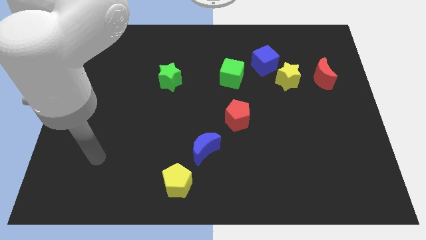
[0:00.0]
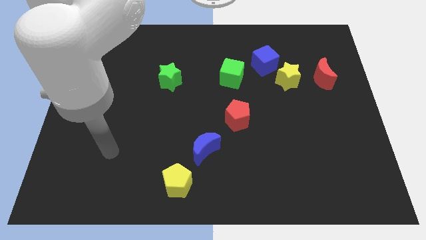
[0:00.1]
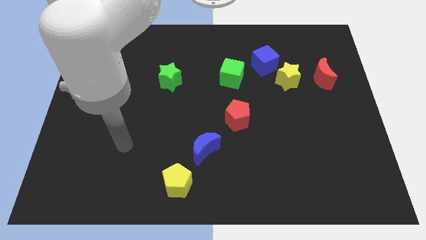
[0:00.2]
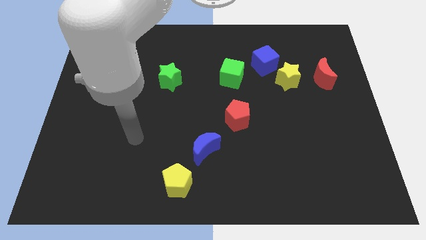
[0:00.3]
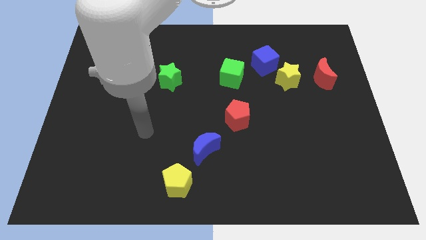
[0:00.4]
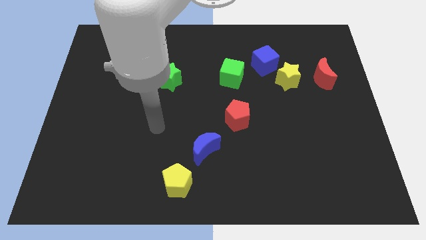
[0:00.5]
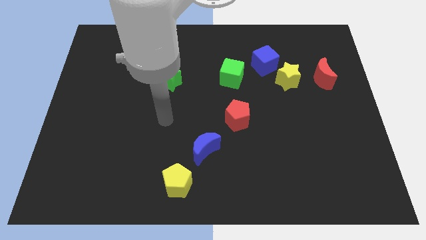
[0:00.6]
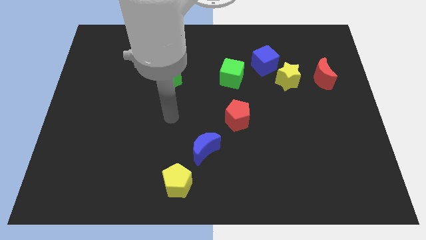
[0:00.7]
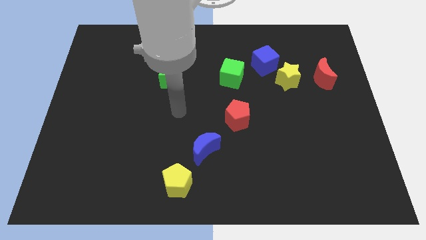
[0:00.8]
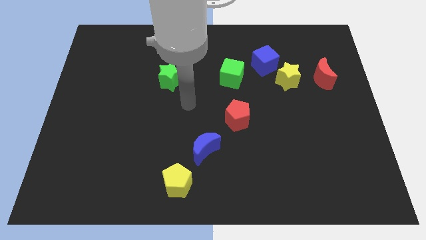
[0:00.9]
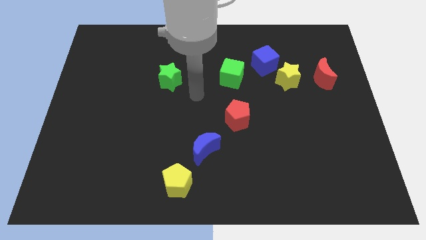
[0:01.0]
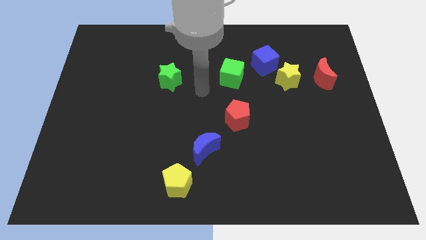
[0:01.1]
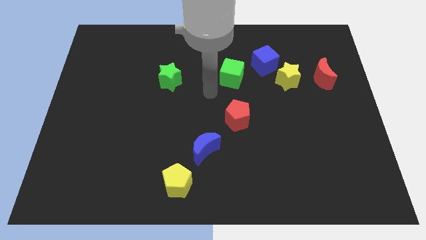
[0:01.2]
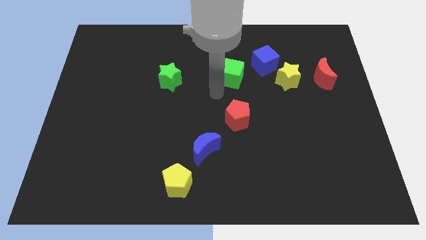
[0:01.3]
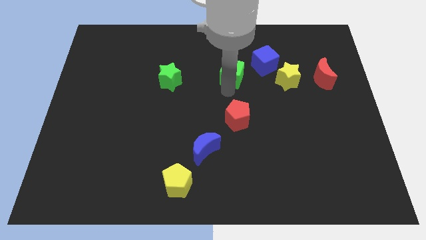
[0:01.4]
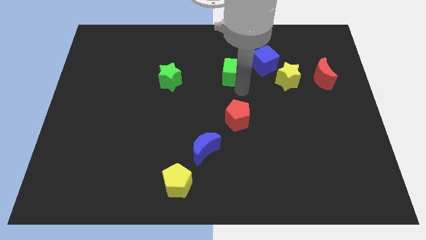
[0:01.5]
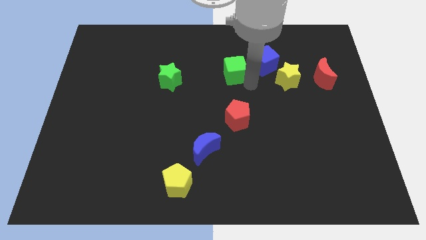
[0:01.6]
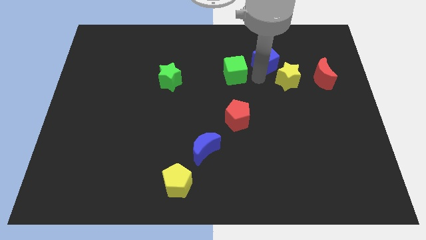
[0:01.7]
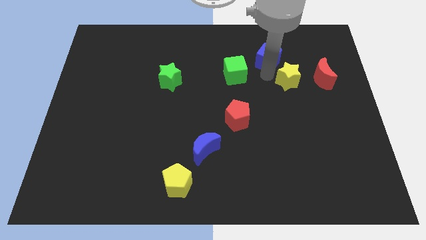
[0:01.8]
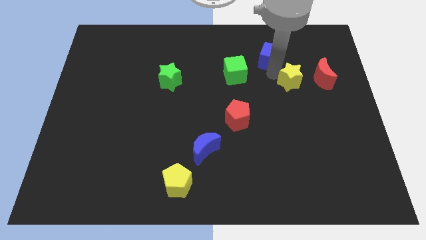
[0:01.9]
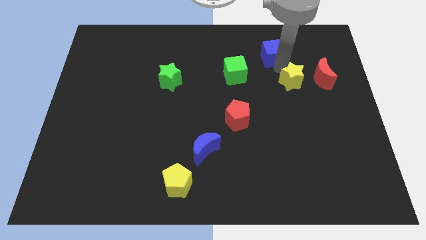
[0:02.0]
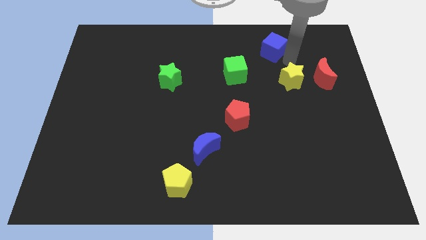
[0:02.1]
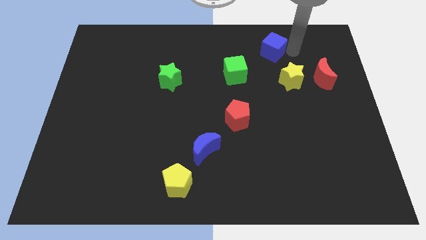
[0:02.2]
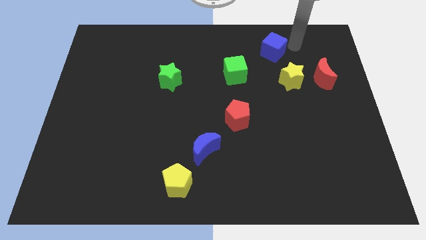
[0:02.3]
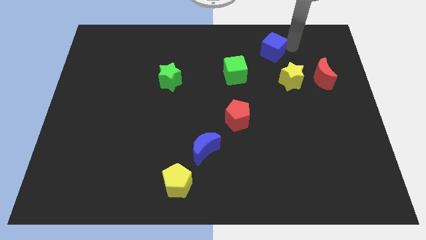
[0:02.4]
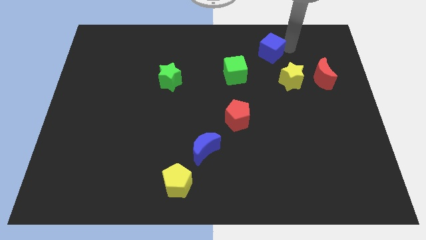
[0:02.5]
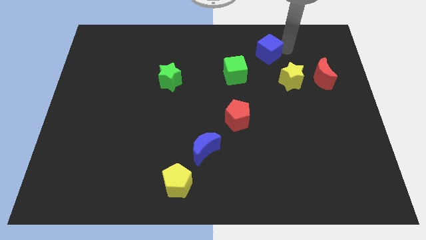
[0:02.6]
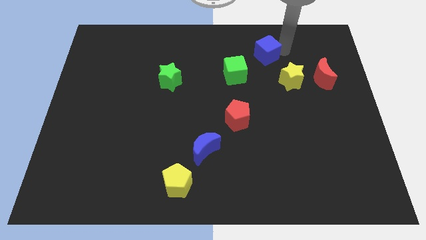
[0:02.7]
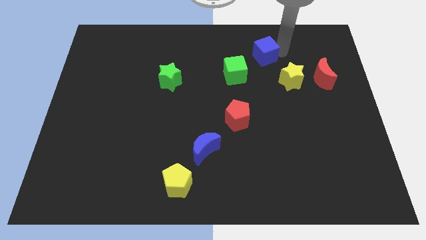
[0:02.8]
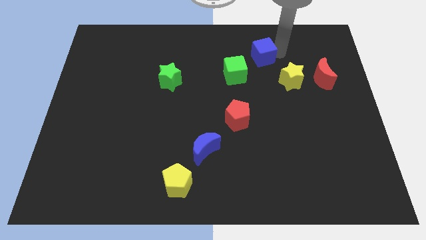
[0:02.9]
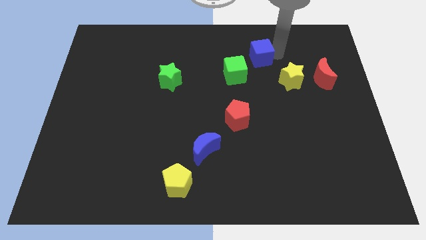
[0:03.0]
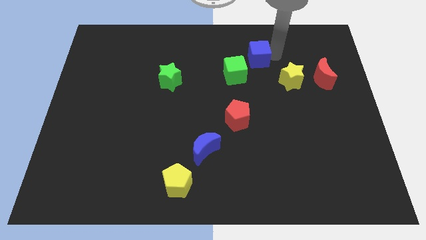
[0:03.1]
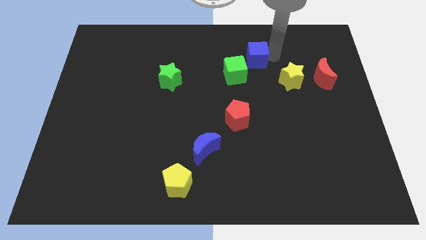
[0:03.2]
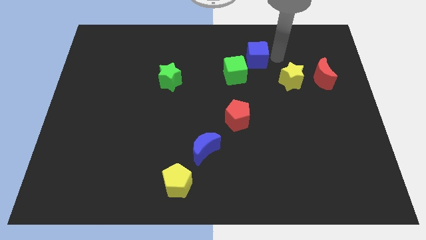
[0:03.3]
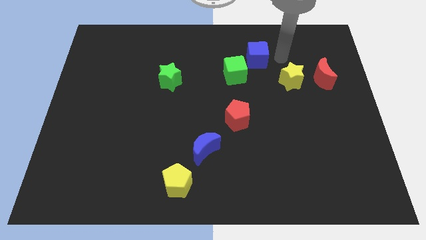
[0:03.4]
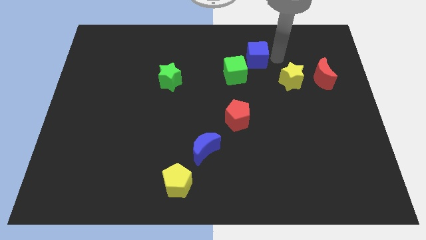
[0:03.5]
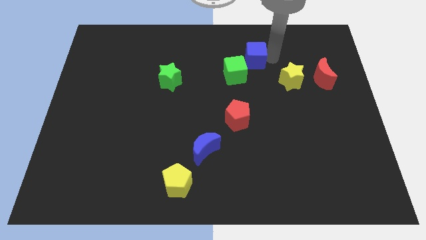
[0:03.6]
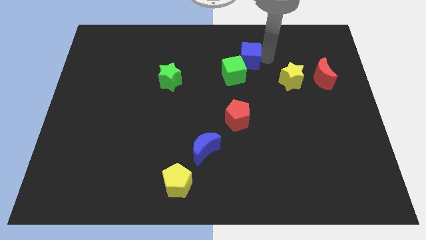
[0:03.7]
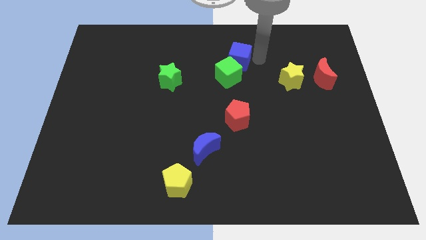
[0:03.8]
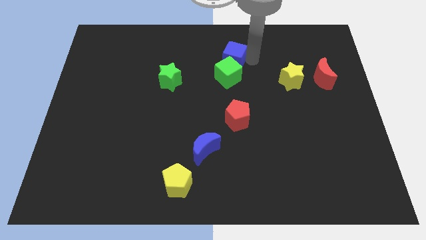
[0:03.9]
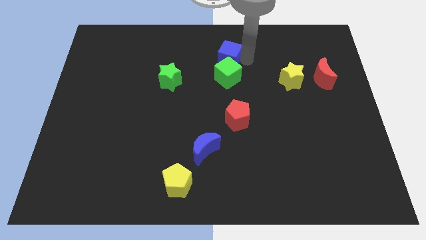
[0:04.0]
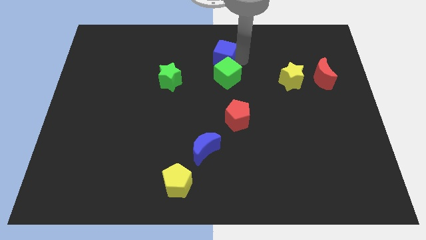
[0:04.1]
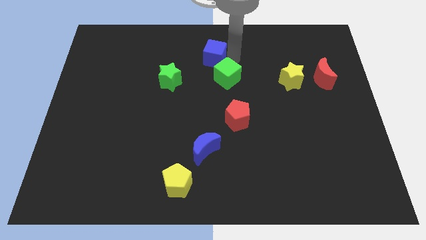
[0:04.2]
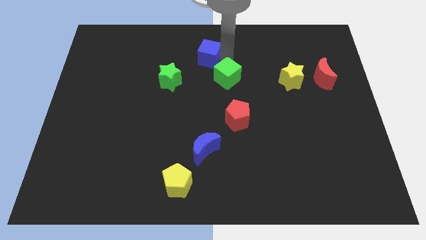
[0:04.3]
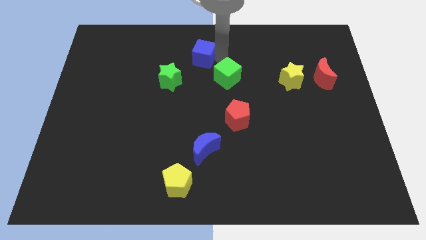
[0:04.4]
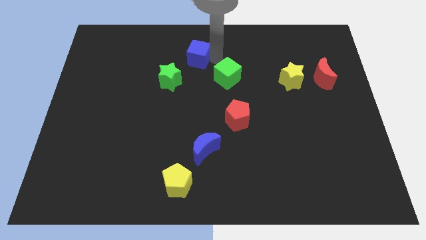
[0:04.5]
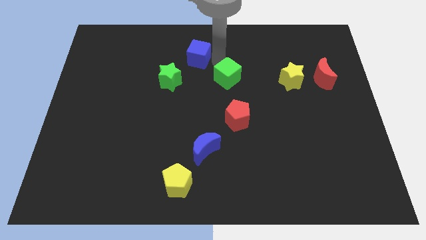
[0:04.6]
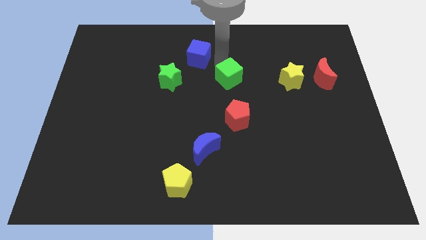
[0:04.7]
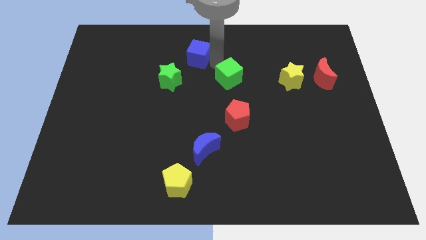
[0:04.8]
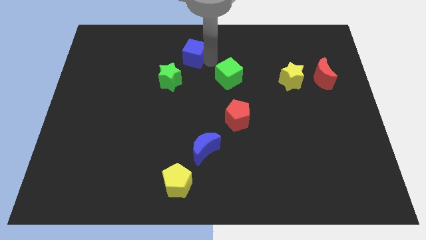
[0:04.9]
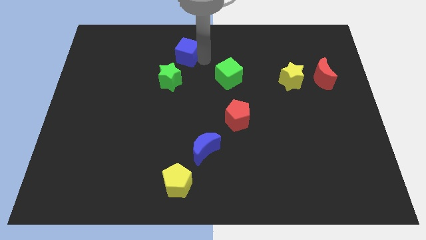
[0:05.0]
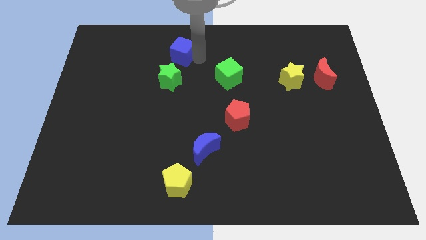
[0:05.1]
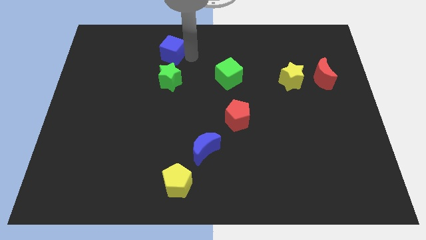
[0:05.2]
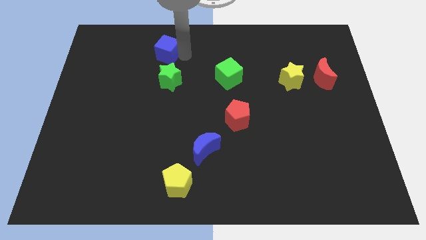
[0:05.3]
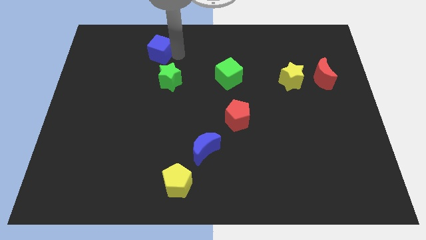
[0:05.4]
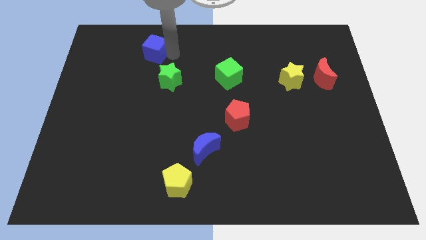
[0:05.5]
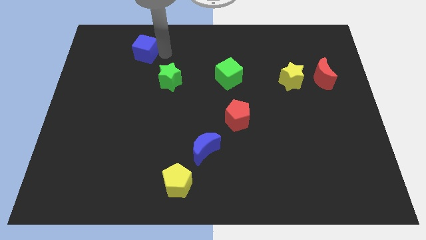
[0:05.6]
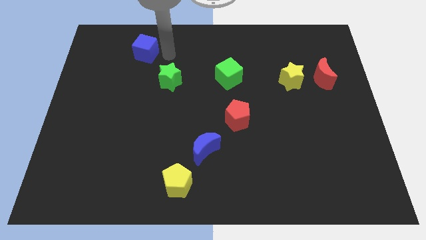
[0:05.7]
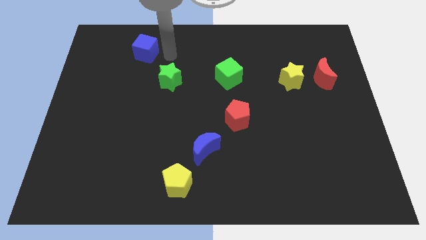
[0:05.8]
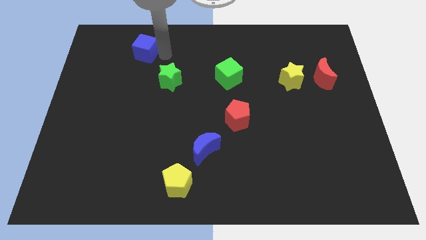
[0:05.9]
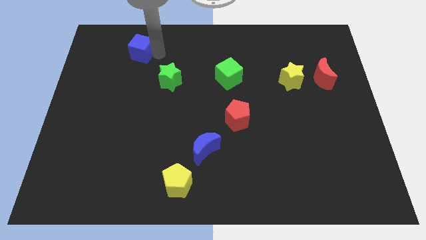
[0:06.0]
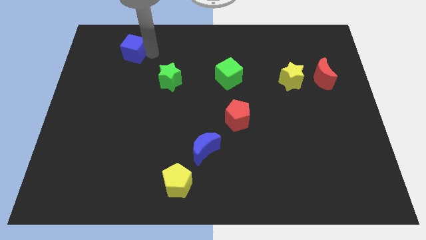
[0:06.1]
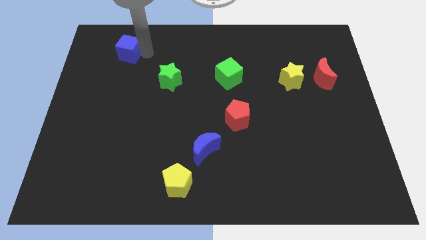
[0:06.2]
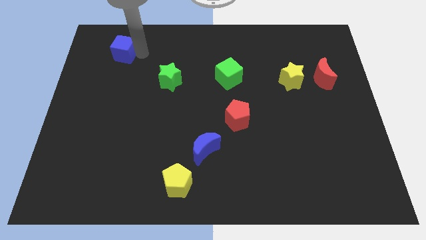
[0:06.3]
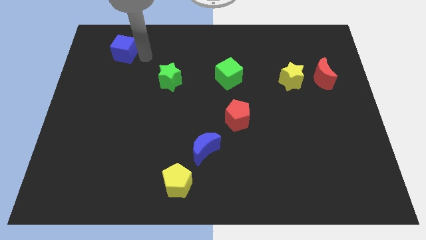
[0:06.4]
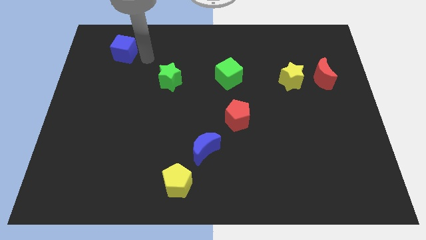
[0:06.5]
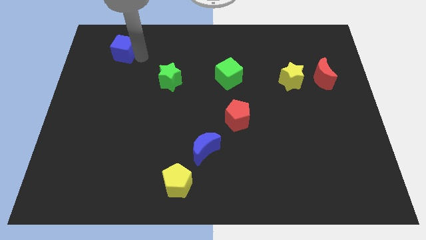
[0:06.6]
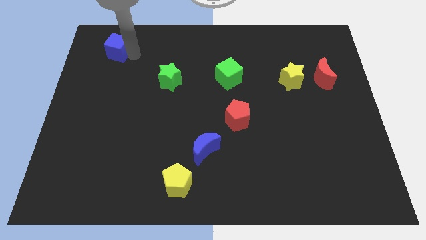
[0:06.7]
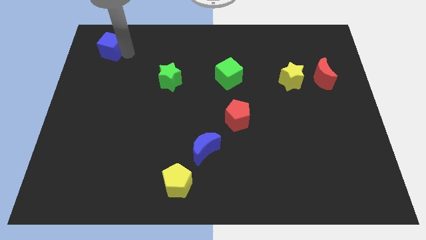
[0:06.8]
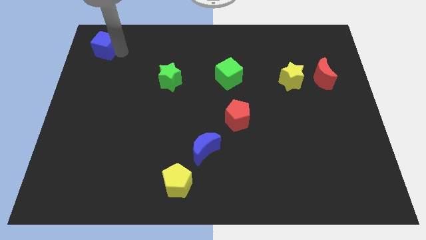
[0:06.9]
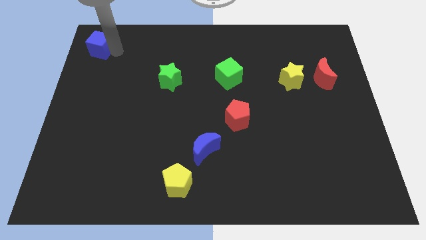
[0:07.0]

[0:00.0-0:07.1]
put the blue cube to the top left of the board

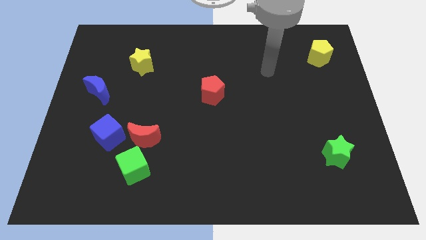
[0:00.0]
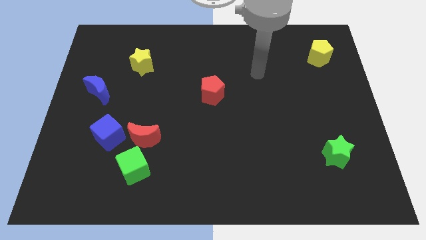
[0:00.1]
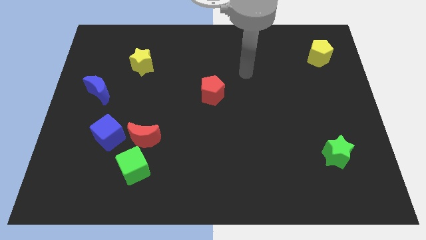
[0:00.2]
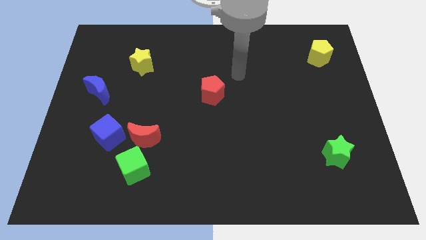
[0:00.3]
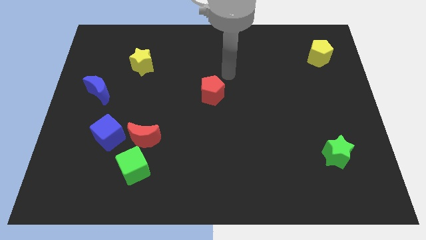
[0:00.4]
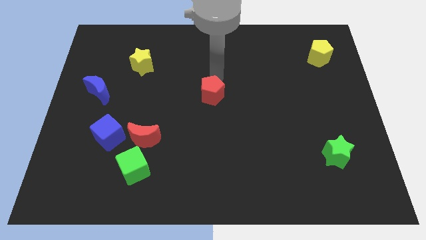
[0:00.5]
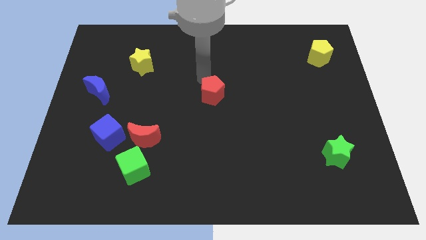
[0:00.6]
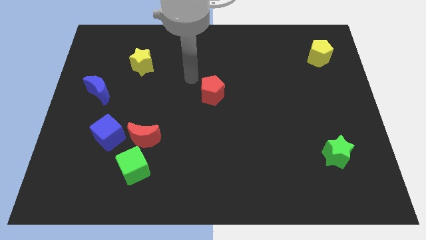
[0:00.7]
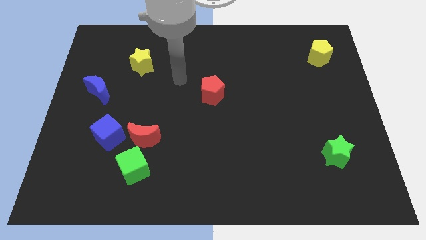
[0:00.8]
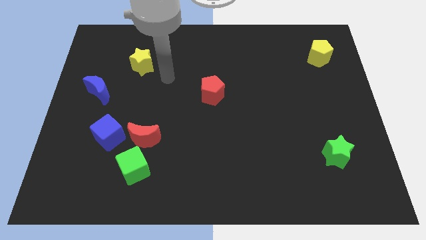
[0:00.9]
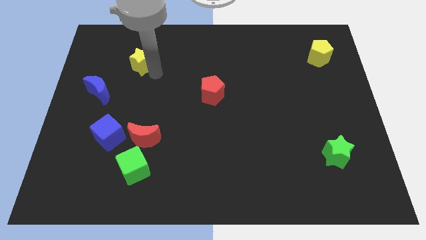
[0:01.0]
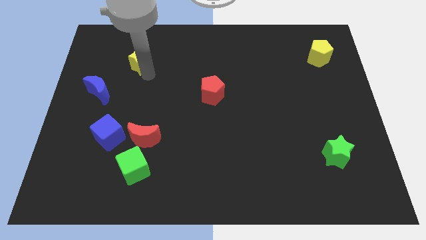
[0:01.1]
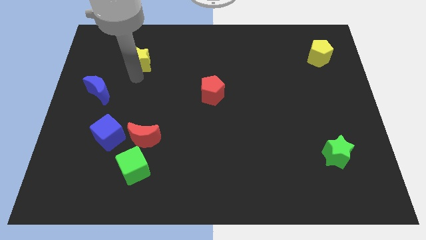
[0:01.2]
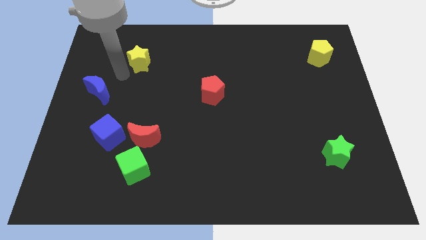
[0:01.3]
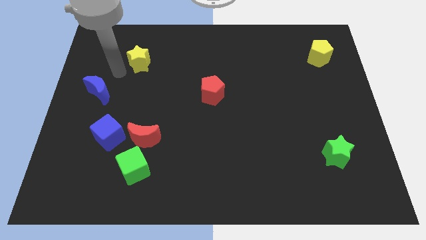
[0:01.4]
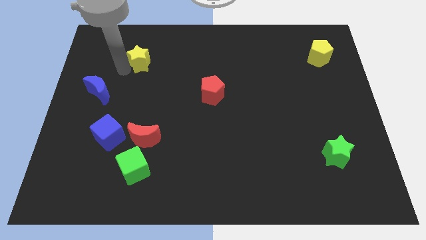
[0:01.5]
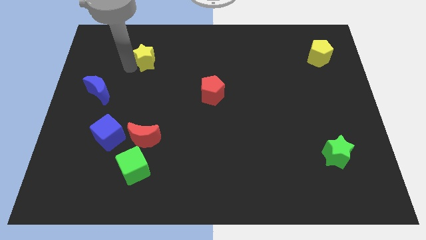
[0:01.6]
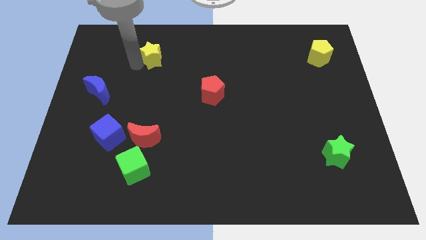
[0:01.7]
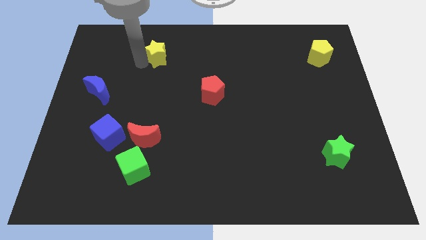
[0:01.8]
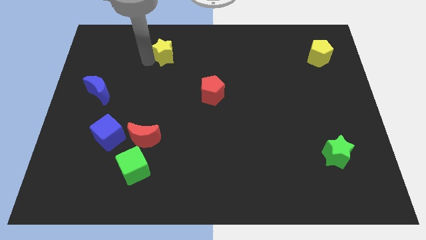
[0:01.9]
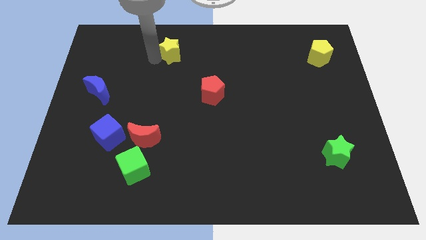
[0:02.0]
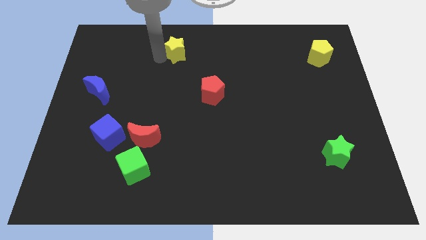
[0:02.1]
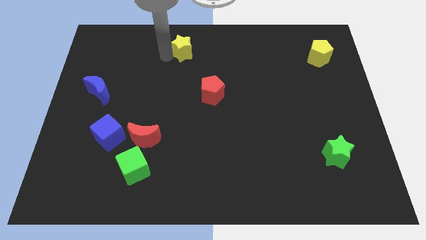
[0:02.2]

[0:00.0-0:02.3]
move the yellow star to the top
